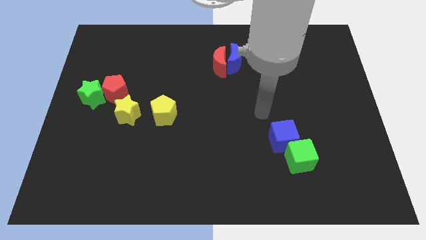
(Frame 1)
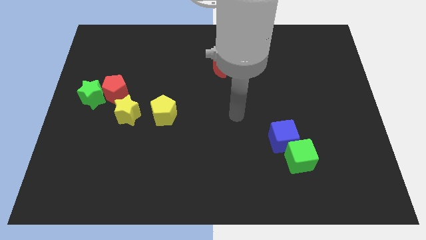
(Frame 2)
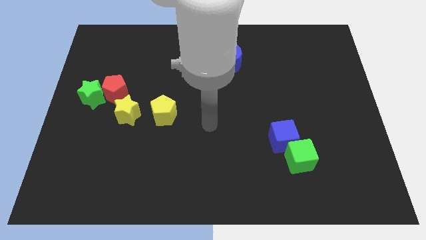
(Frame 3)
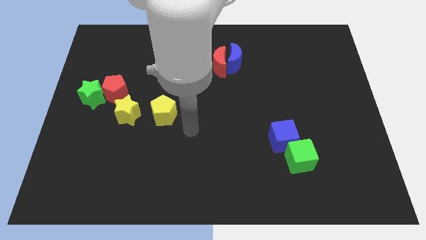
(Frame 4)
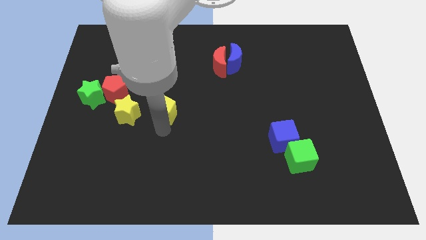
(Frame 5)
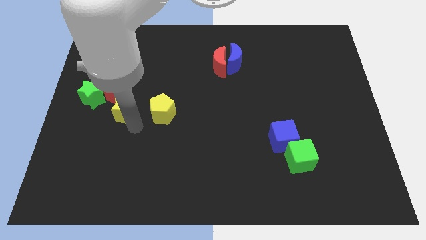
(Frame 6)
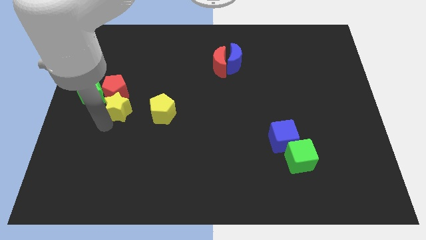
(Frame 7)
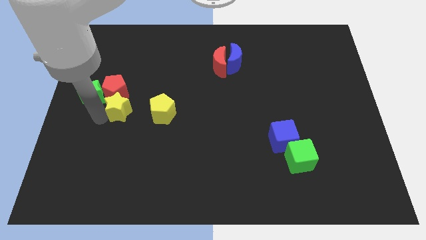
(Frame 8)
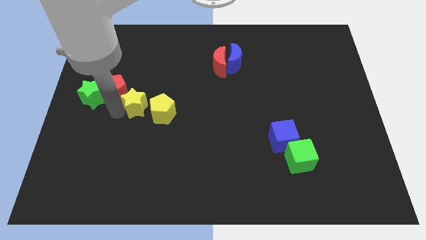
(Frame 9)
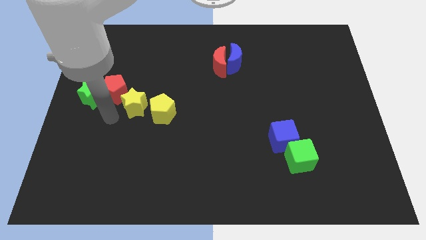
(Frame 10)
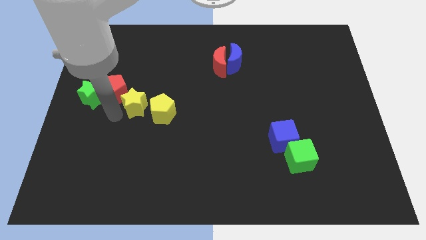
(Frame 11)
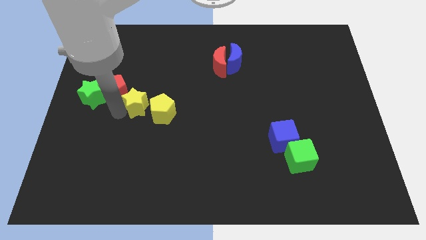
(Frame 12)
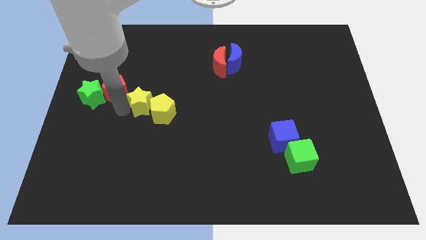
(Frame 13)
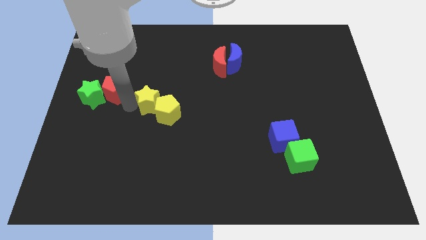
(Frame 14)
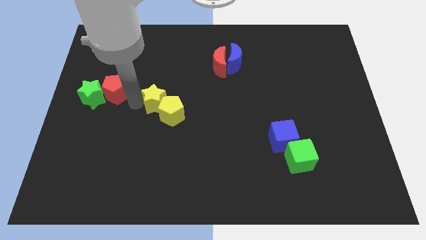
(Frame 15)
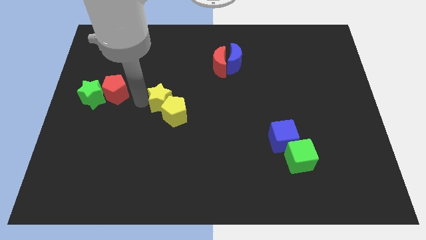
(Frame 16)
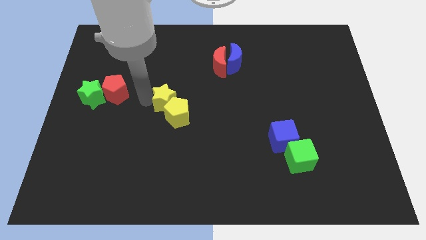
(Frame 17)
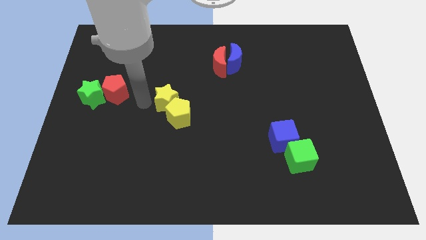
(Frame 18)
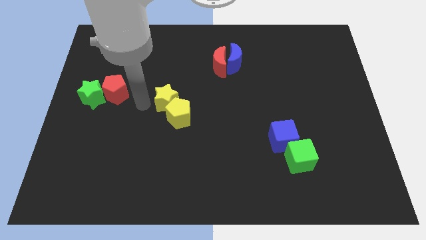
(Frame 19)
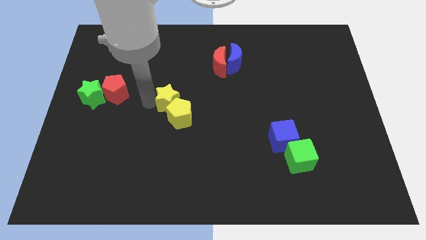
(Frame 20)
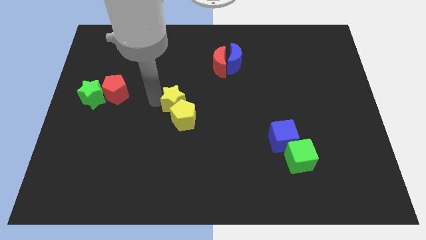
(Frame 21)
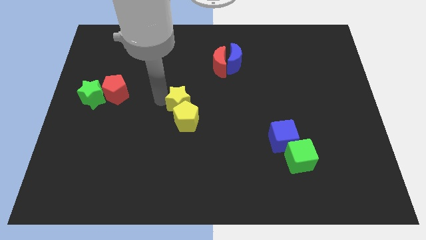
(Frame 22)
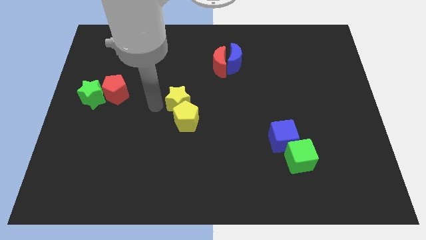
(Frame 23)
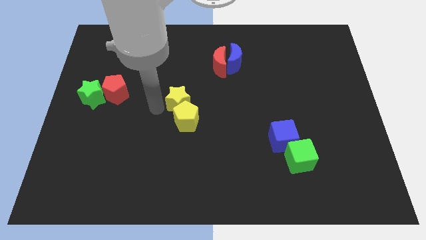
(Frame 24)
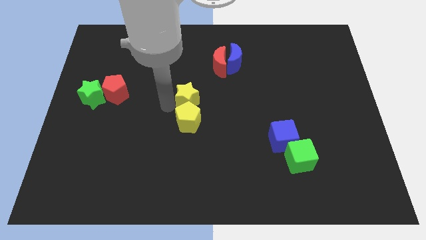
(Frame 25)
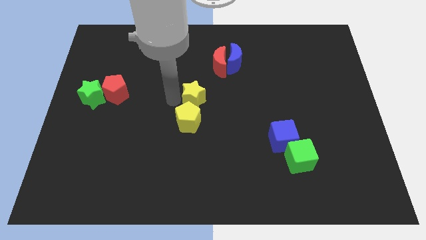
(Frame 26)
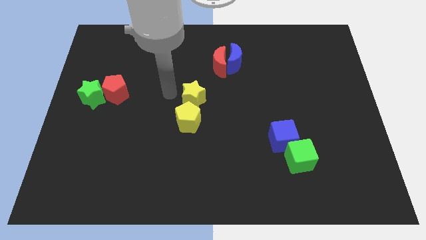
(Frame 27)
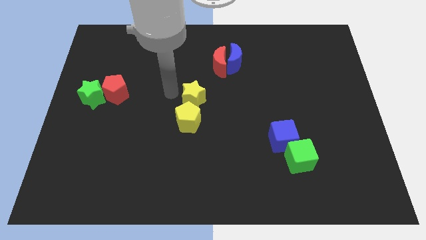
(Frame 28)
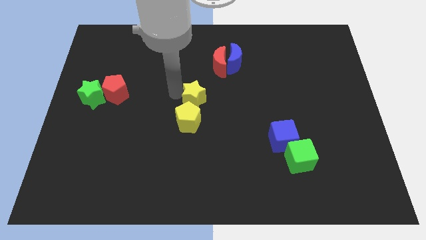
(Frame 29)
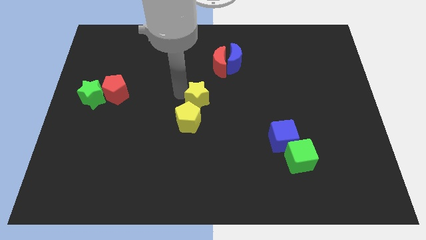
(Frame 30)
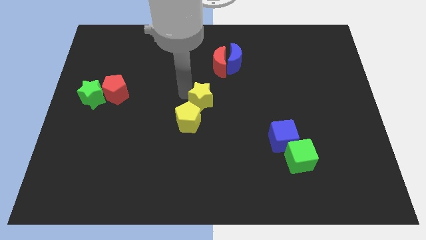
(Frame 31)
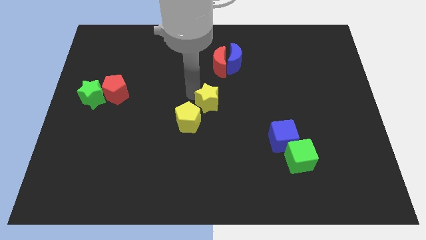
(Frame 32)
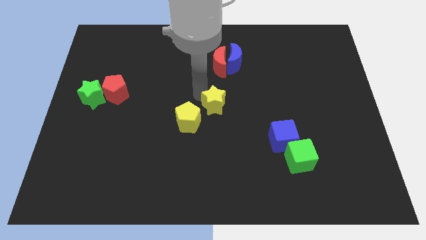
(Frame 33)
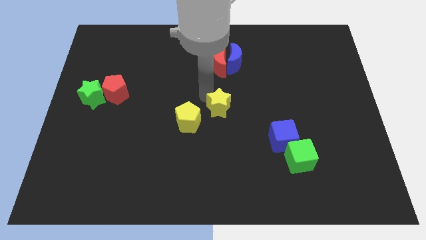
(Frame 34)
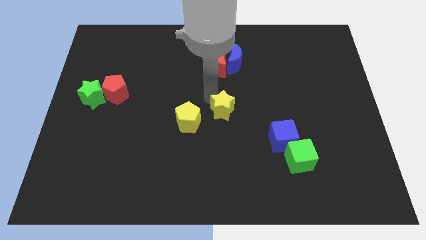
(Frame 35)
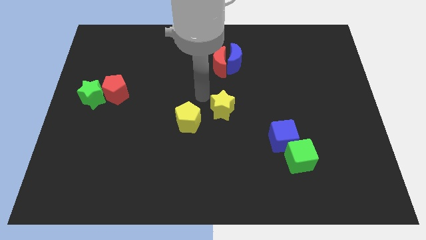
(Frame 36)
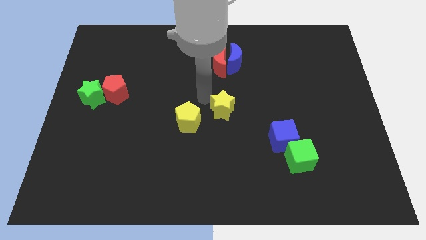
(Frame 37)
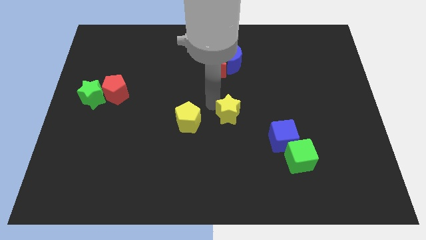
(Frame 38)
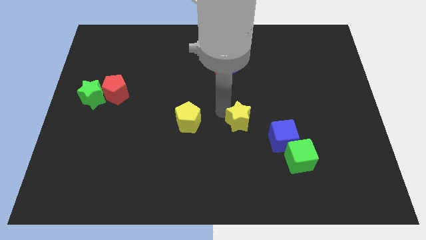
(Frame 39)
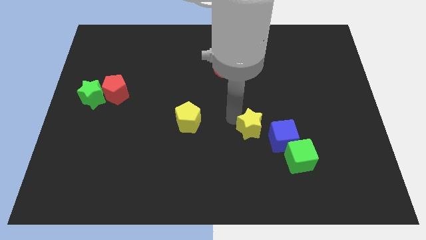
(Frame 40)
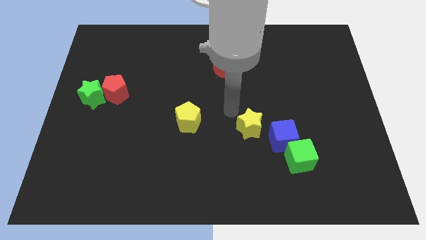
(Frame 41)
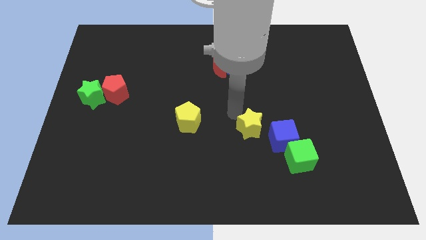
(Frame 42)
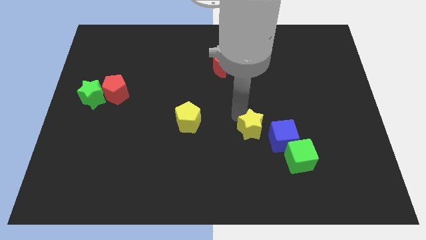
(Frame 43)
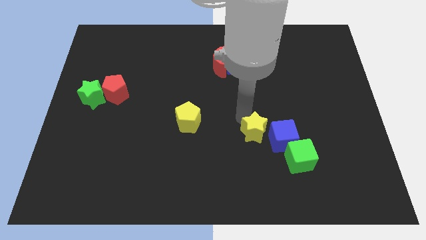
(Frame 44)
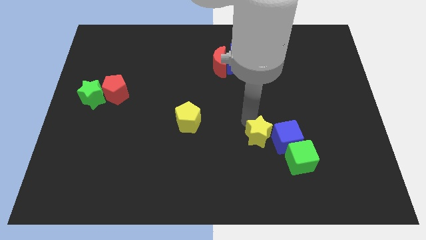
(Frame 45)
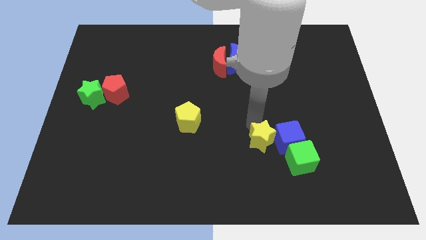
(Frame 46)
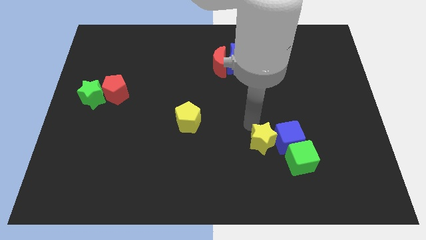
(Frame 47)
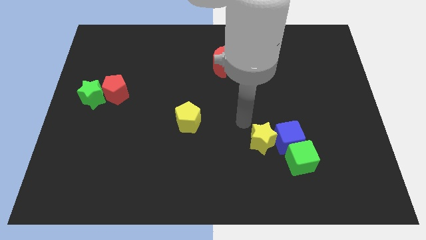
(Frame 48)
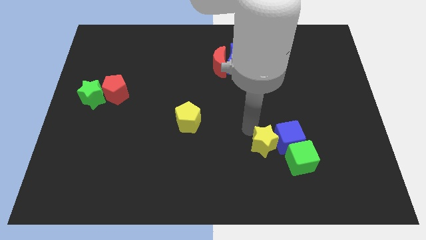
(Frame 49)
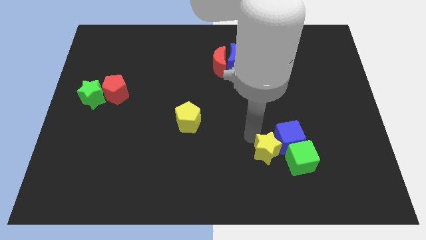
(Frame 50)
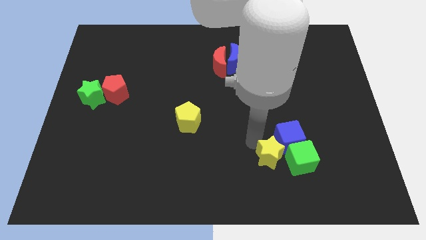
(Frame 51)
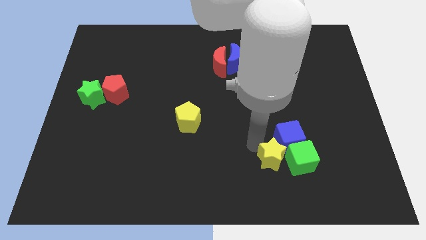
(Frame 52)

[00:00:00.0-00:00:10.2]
slide the yellow star to the green cube

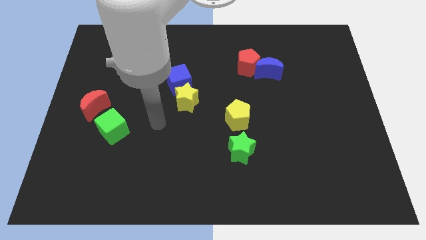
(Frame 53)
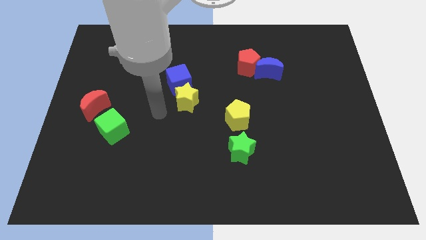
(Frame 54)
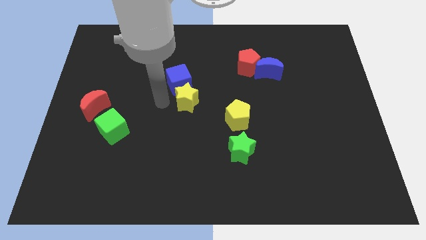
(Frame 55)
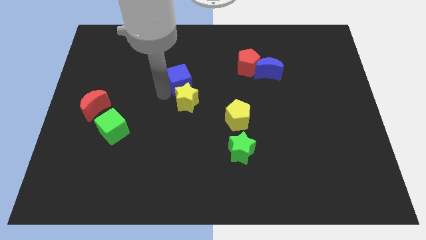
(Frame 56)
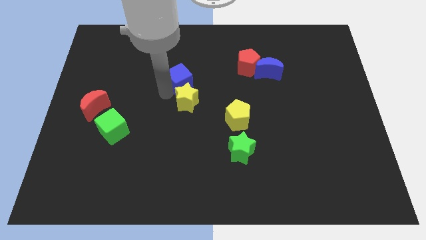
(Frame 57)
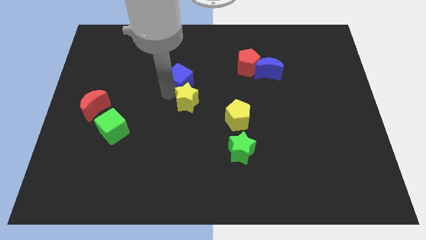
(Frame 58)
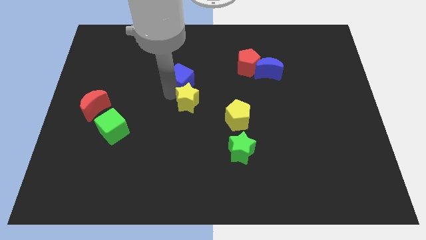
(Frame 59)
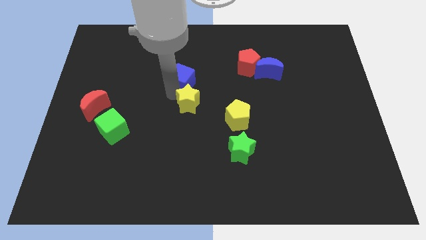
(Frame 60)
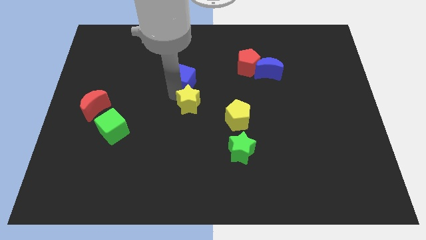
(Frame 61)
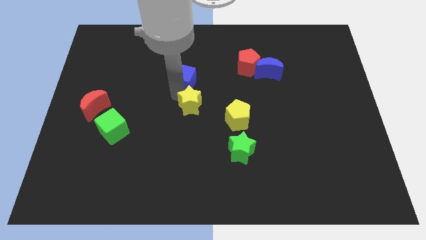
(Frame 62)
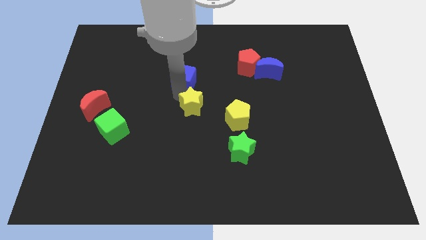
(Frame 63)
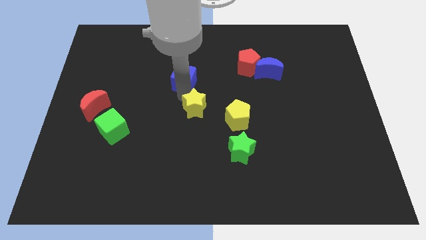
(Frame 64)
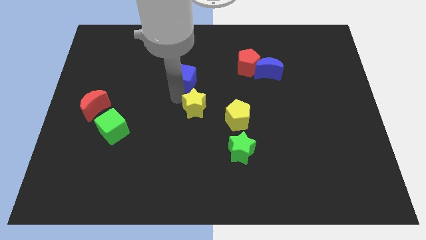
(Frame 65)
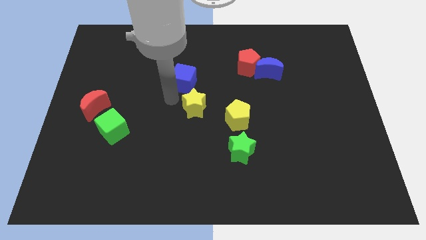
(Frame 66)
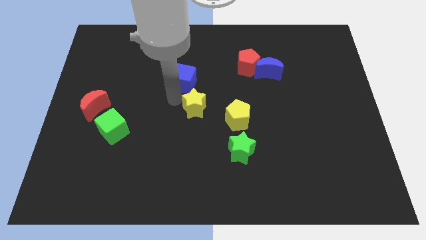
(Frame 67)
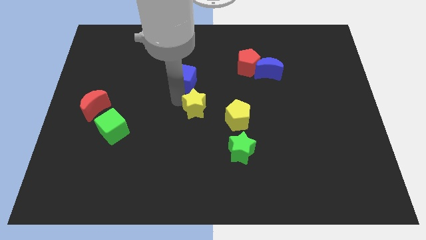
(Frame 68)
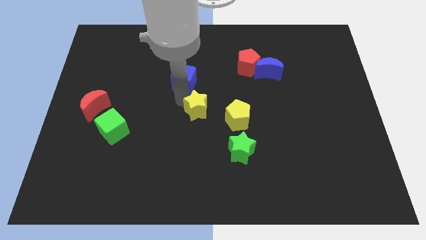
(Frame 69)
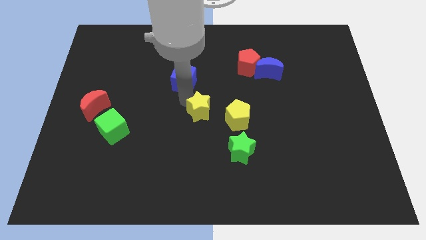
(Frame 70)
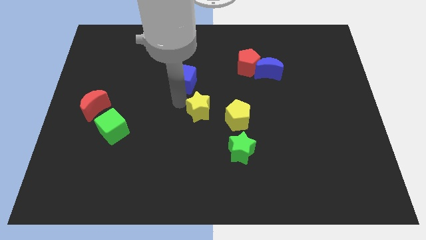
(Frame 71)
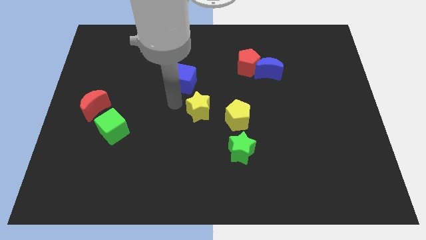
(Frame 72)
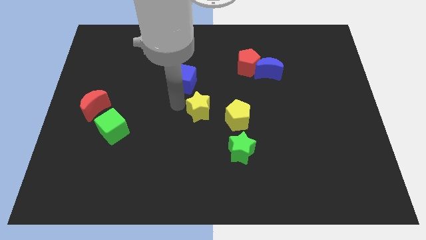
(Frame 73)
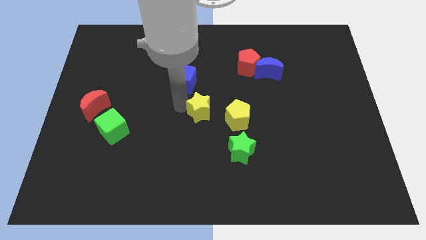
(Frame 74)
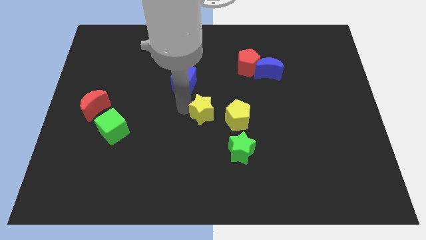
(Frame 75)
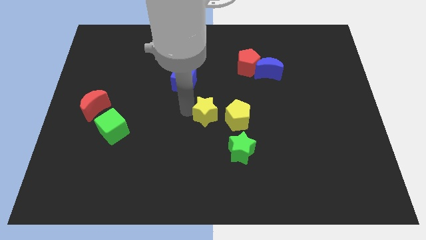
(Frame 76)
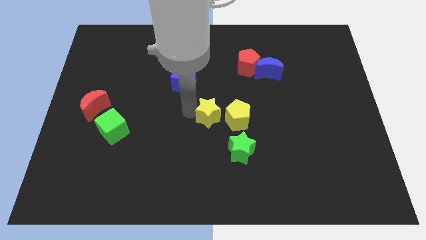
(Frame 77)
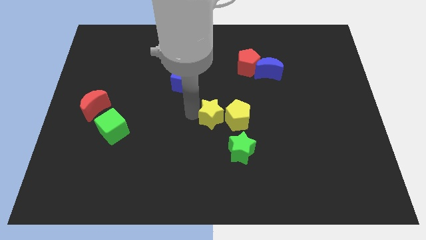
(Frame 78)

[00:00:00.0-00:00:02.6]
move the yellow star close to the yellow pentagon
